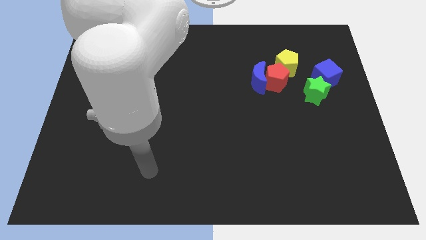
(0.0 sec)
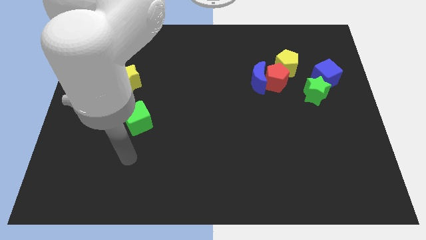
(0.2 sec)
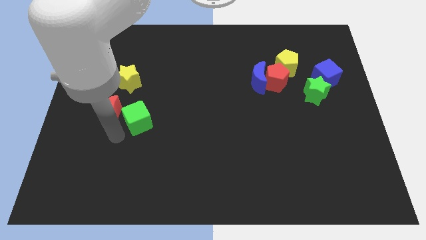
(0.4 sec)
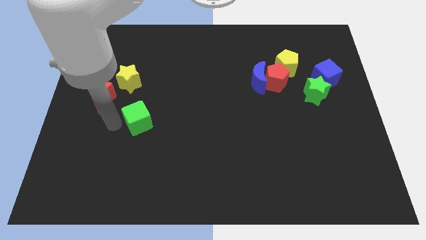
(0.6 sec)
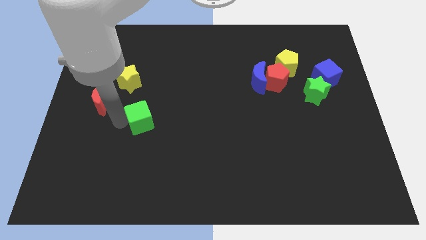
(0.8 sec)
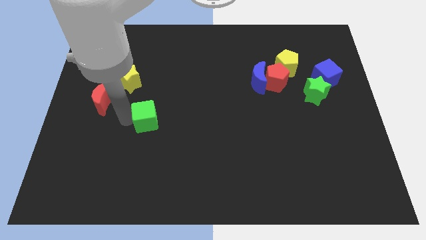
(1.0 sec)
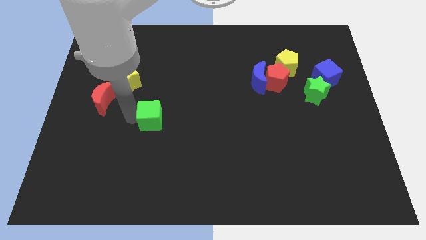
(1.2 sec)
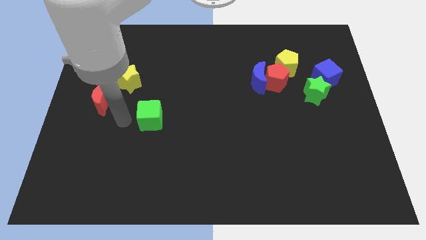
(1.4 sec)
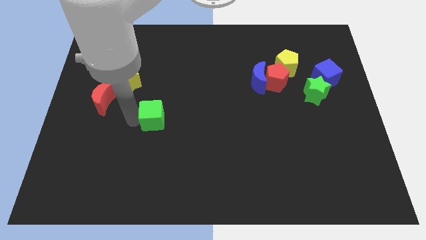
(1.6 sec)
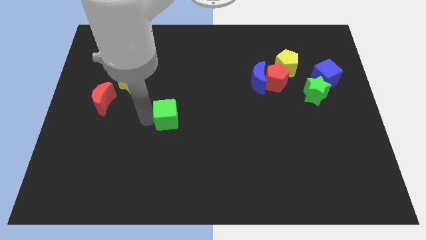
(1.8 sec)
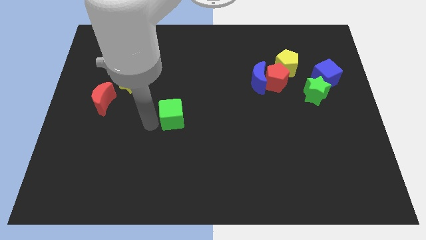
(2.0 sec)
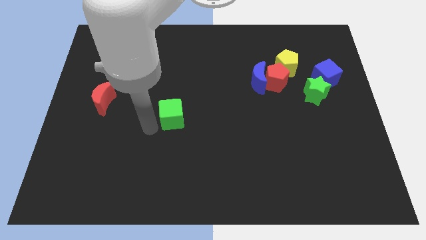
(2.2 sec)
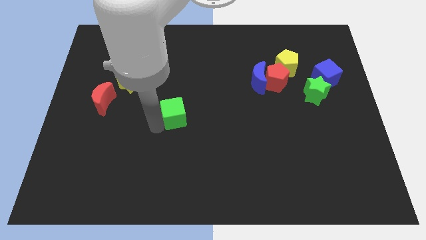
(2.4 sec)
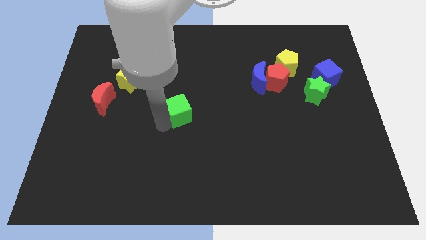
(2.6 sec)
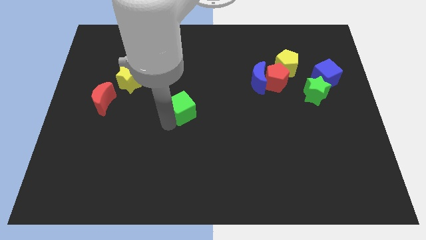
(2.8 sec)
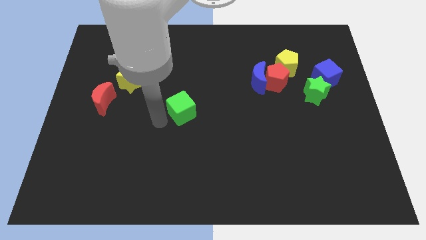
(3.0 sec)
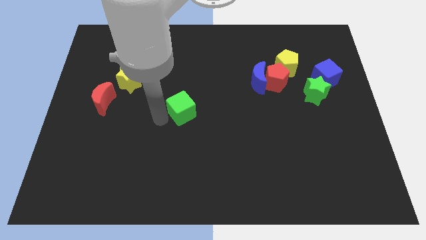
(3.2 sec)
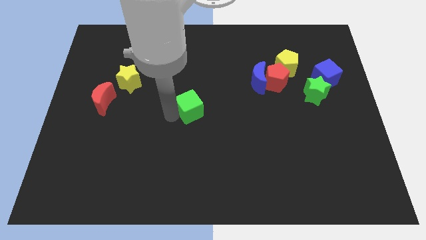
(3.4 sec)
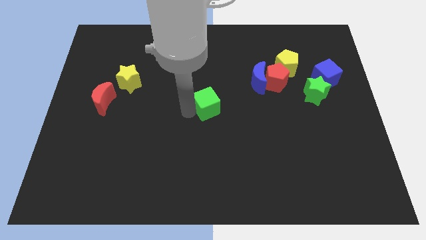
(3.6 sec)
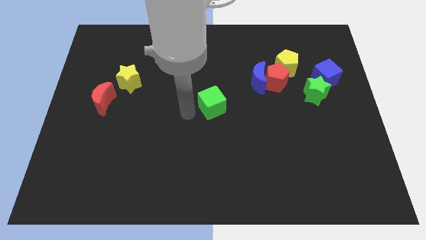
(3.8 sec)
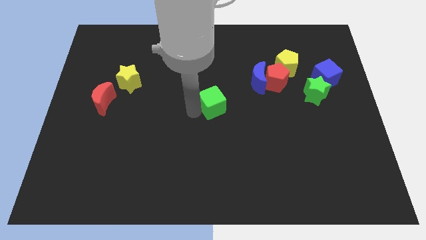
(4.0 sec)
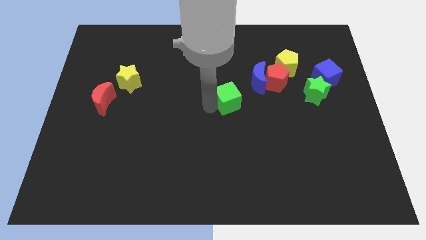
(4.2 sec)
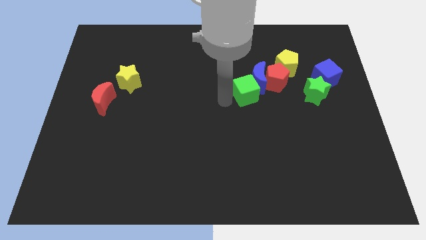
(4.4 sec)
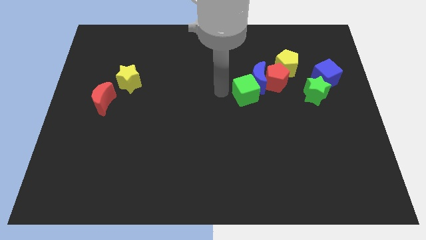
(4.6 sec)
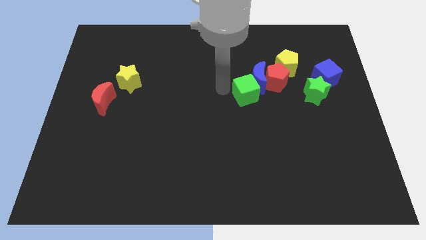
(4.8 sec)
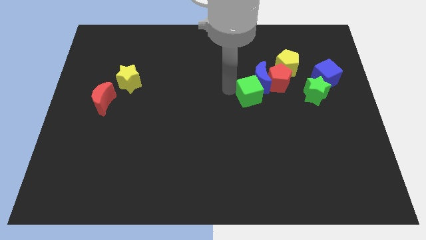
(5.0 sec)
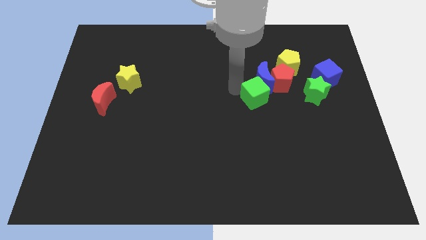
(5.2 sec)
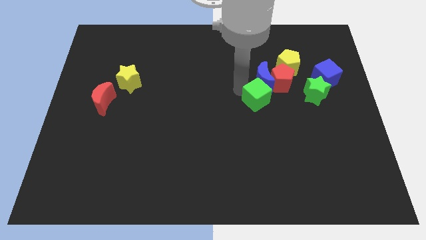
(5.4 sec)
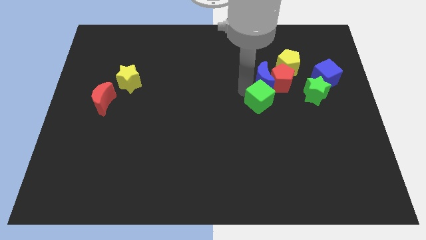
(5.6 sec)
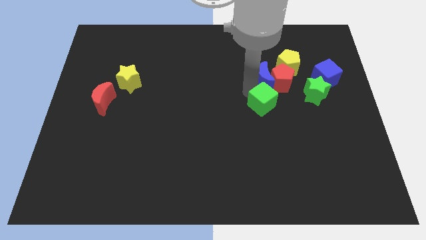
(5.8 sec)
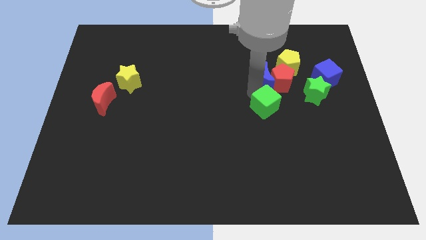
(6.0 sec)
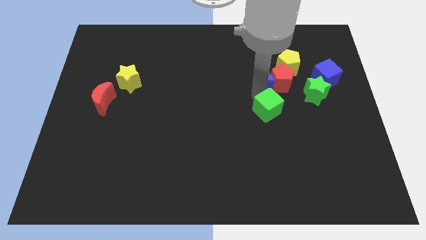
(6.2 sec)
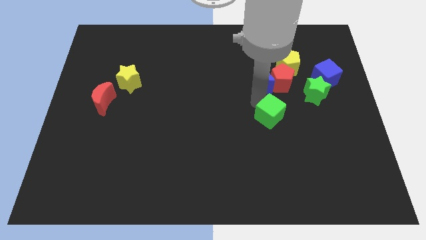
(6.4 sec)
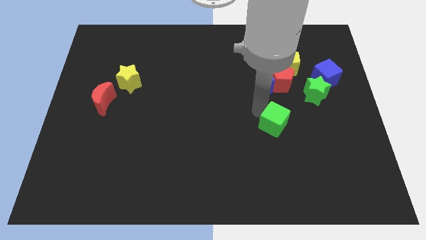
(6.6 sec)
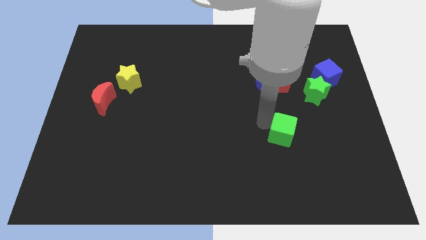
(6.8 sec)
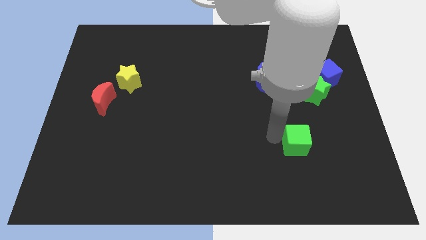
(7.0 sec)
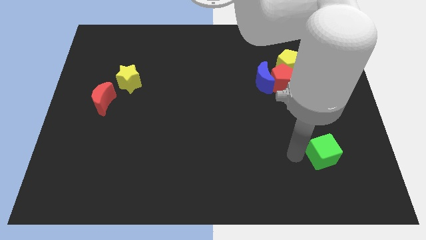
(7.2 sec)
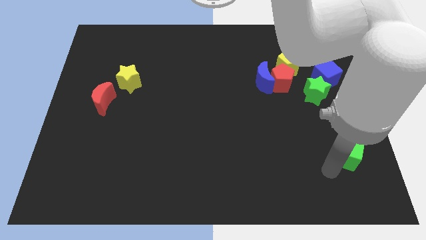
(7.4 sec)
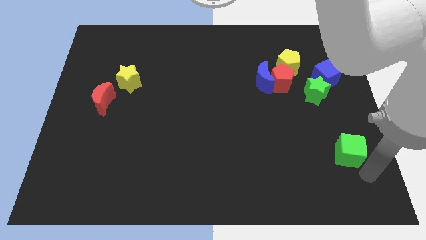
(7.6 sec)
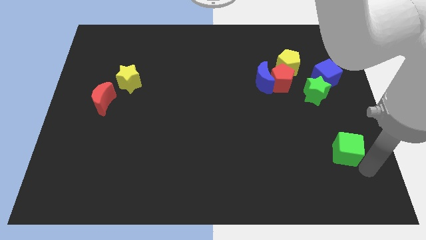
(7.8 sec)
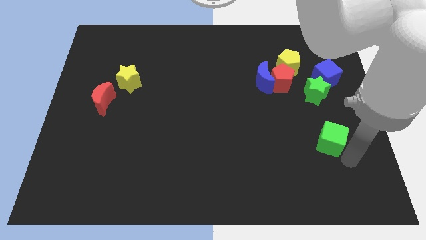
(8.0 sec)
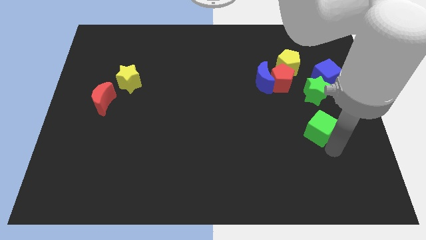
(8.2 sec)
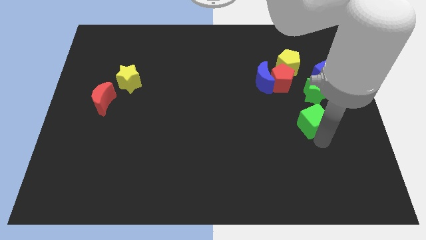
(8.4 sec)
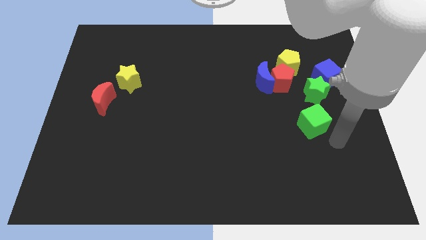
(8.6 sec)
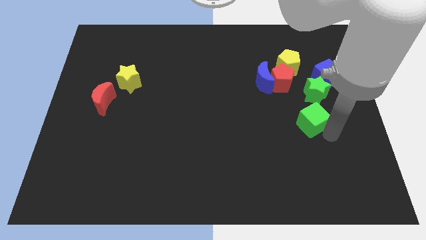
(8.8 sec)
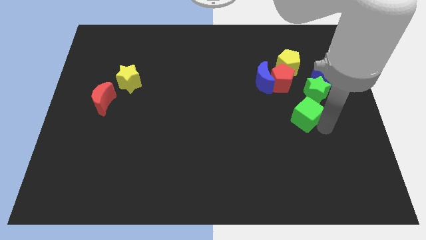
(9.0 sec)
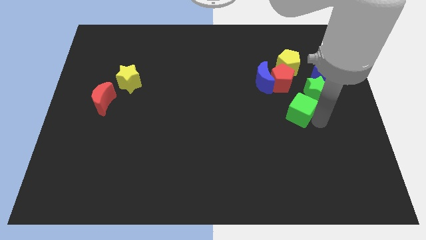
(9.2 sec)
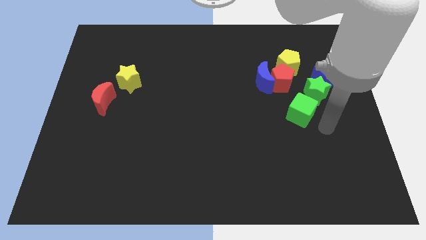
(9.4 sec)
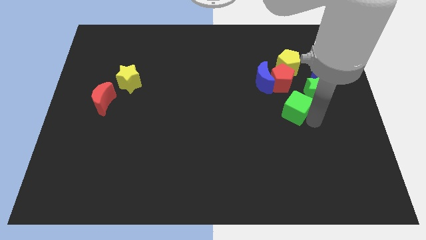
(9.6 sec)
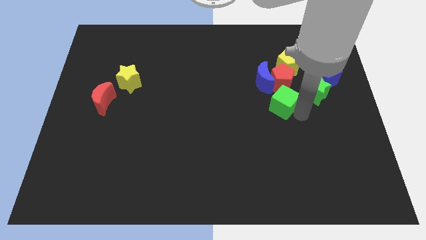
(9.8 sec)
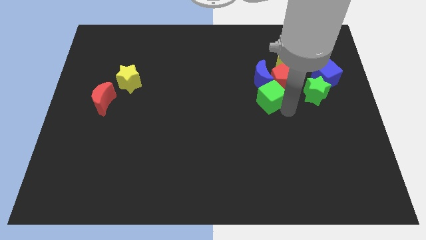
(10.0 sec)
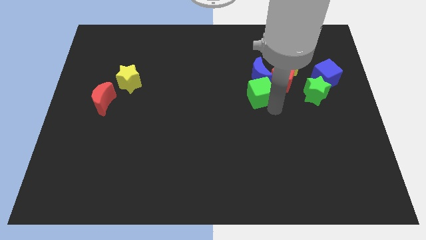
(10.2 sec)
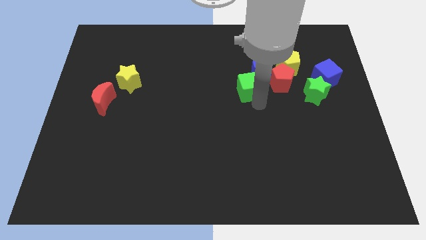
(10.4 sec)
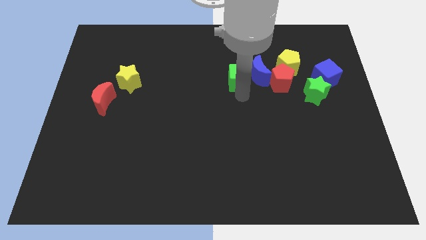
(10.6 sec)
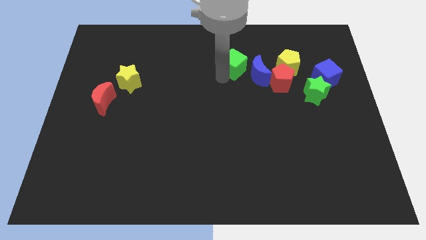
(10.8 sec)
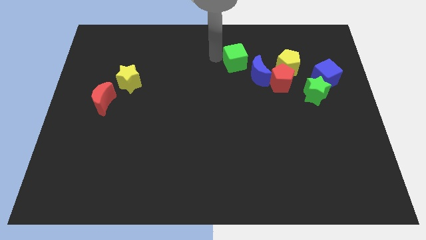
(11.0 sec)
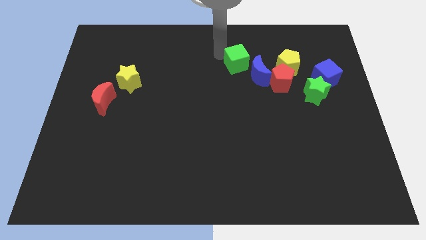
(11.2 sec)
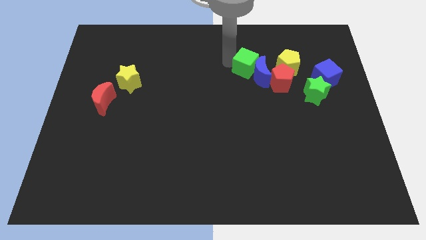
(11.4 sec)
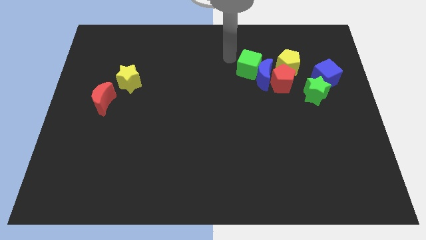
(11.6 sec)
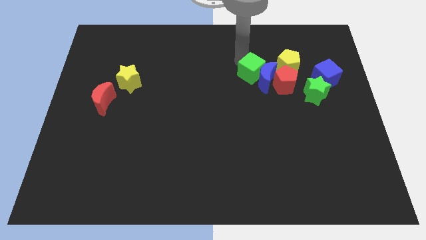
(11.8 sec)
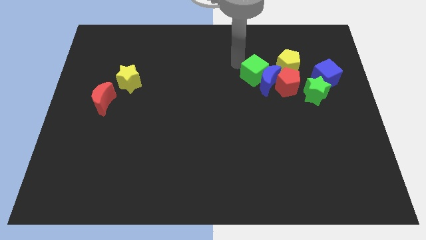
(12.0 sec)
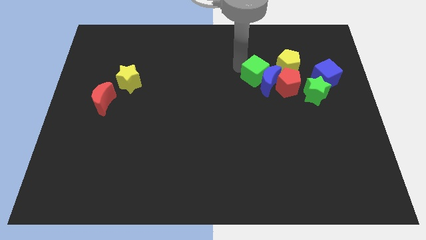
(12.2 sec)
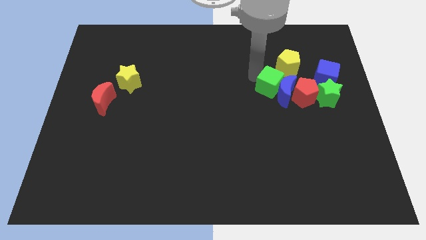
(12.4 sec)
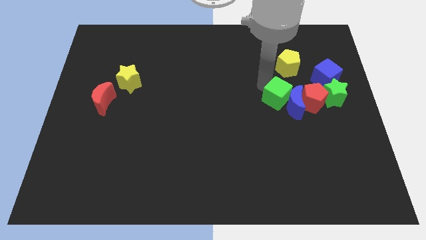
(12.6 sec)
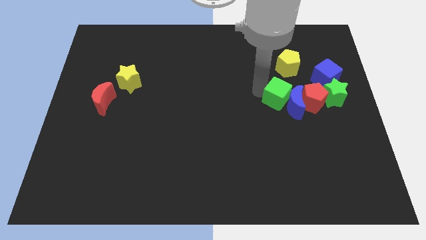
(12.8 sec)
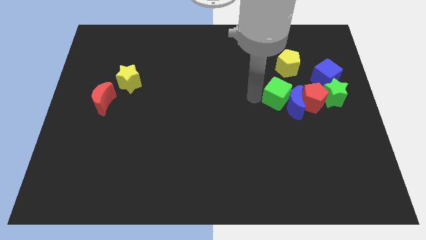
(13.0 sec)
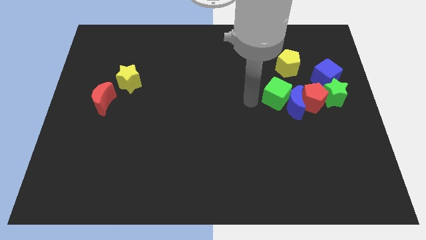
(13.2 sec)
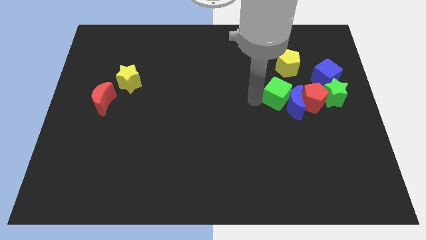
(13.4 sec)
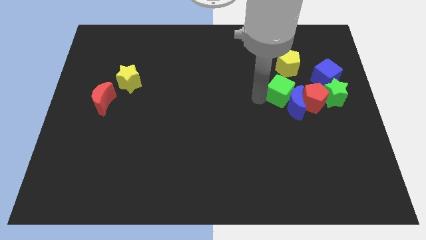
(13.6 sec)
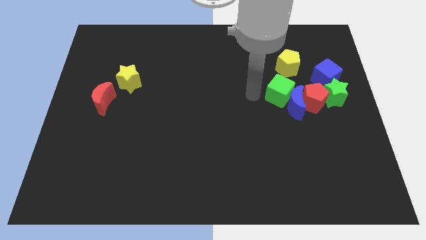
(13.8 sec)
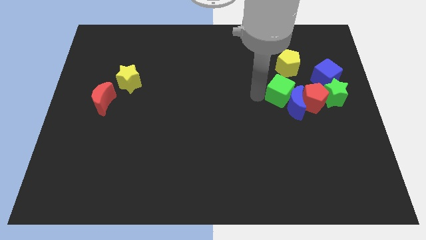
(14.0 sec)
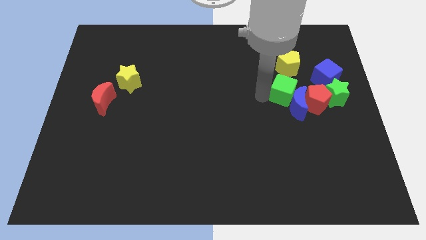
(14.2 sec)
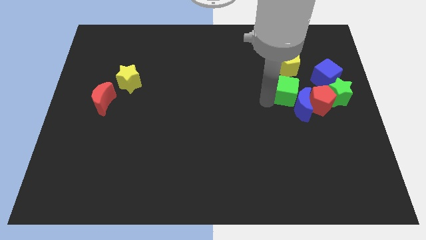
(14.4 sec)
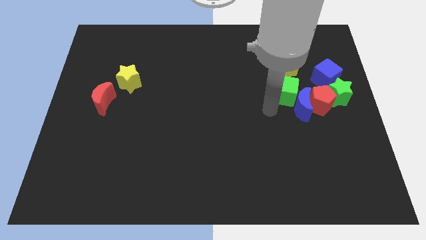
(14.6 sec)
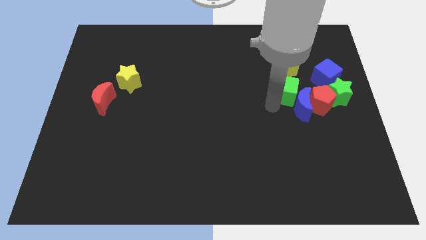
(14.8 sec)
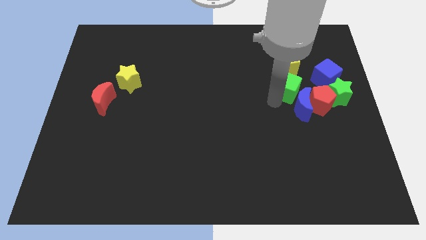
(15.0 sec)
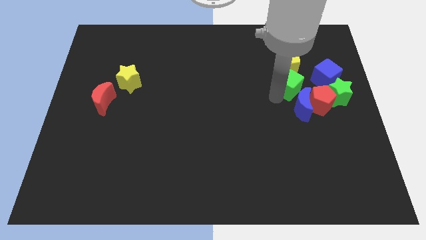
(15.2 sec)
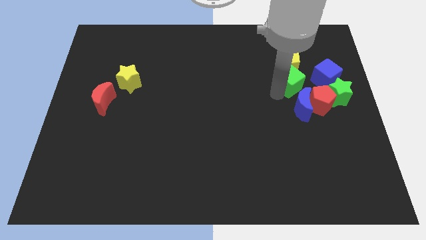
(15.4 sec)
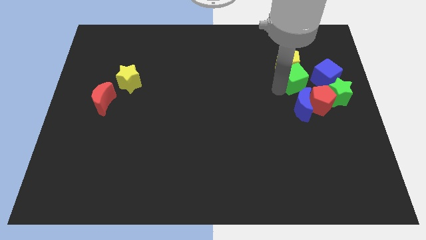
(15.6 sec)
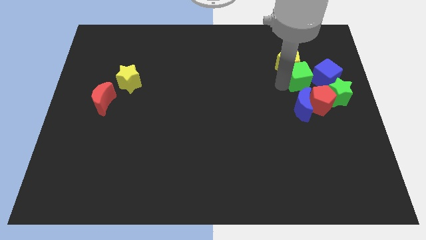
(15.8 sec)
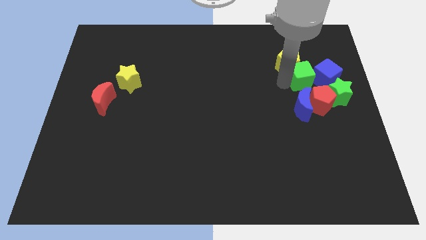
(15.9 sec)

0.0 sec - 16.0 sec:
move the green cube towards the blue cube
